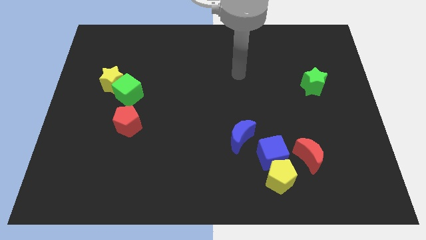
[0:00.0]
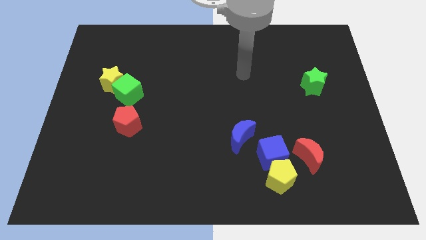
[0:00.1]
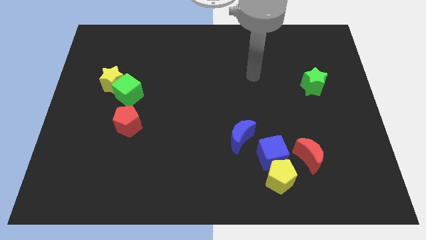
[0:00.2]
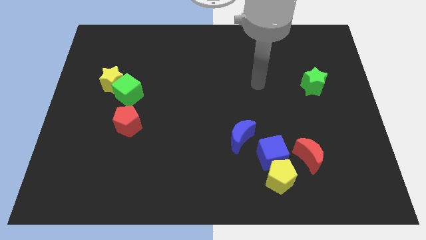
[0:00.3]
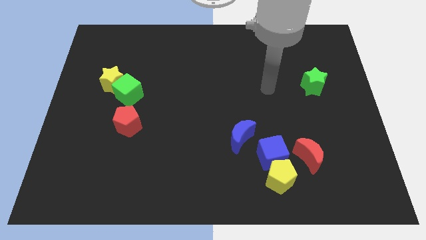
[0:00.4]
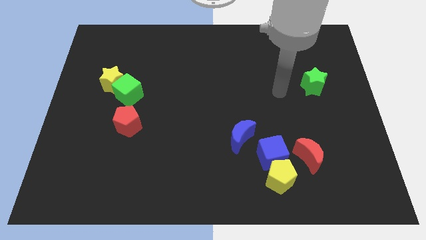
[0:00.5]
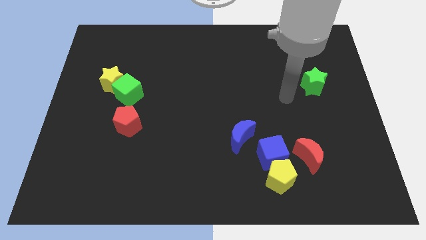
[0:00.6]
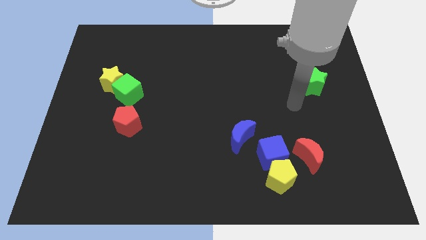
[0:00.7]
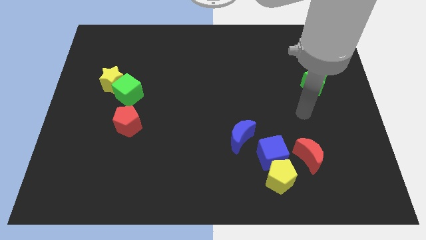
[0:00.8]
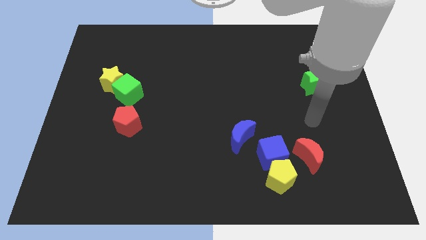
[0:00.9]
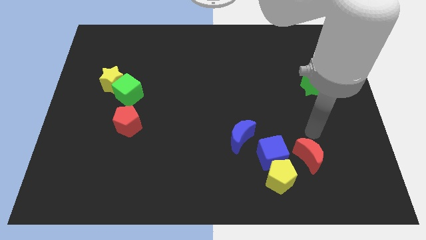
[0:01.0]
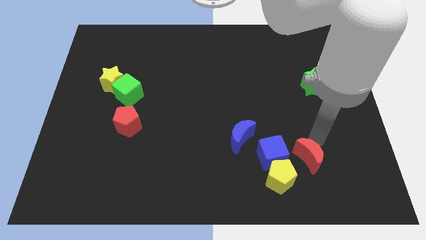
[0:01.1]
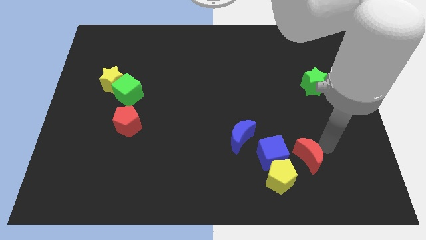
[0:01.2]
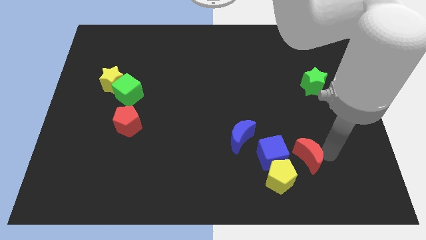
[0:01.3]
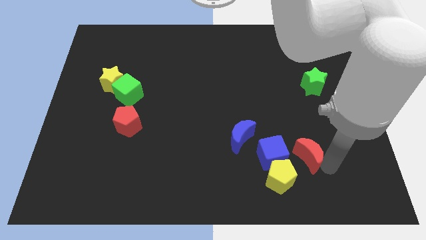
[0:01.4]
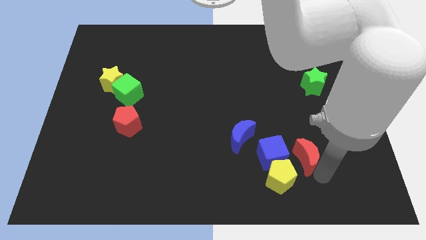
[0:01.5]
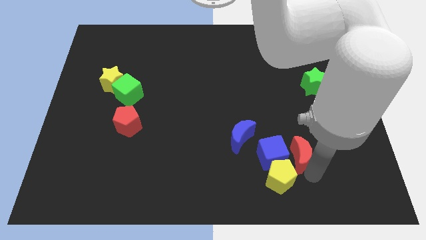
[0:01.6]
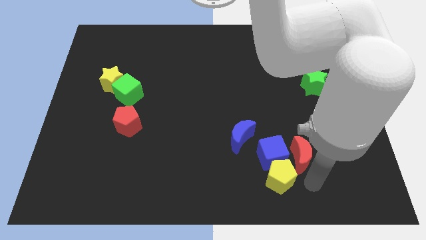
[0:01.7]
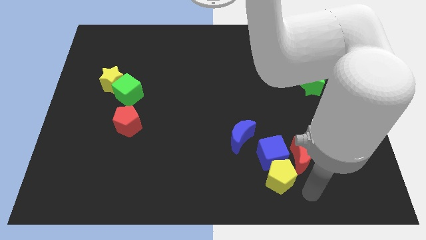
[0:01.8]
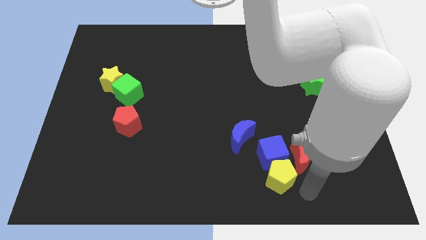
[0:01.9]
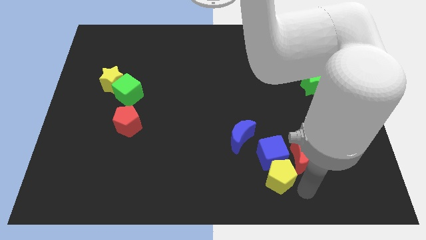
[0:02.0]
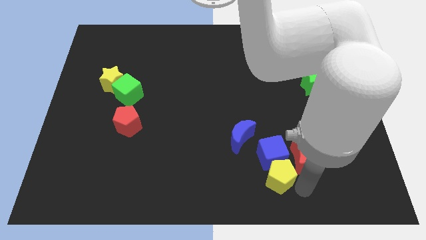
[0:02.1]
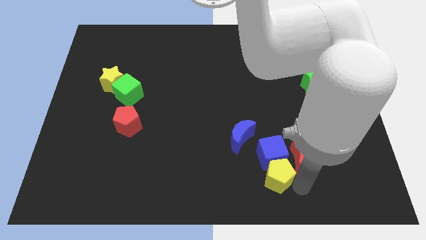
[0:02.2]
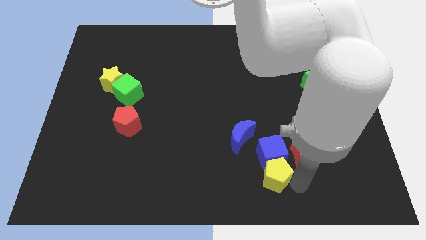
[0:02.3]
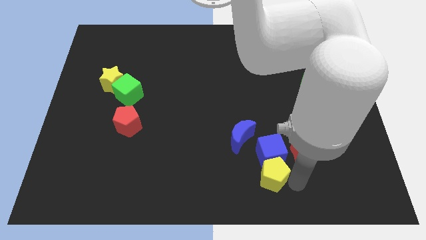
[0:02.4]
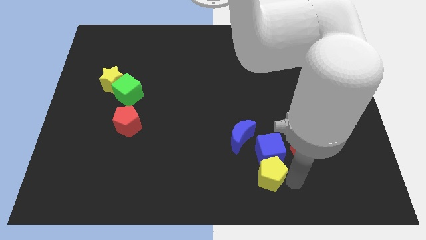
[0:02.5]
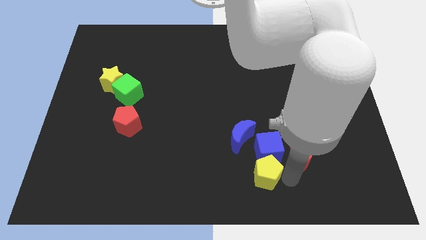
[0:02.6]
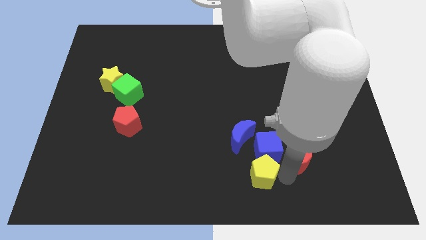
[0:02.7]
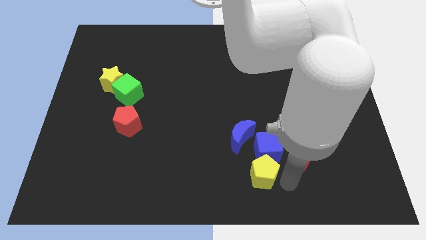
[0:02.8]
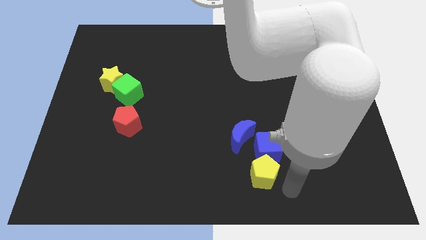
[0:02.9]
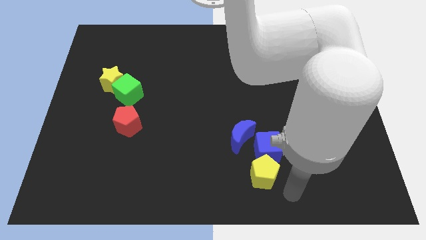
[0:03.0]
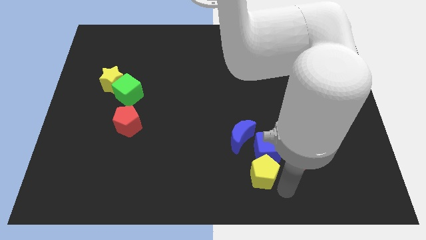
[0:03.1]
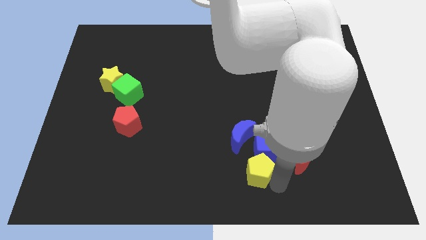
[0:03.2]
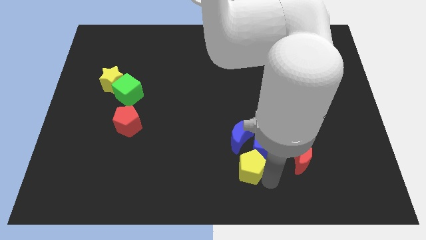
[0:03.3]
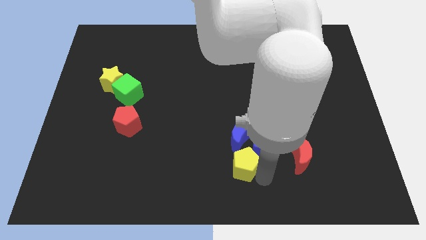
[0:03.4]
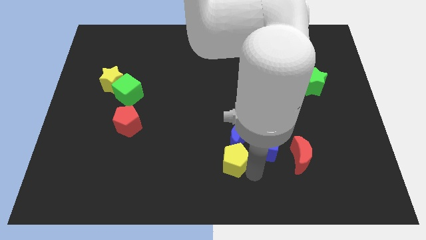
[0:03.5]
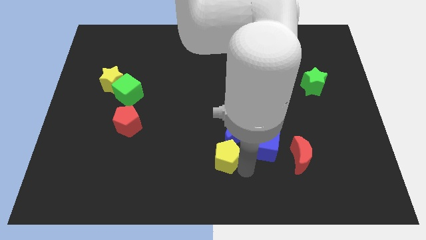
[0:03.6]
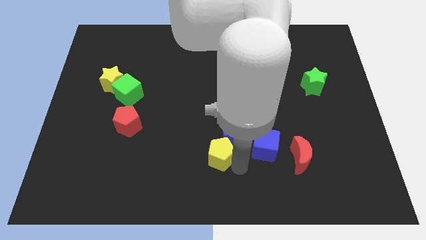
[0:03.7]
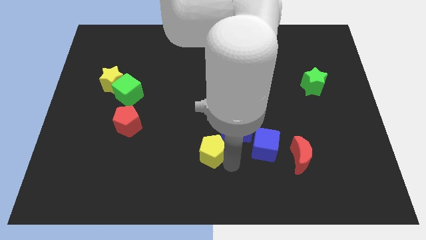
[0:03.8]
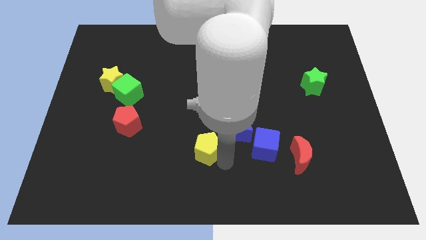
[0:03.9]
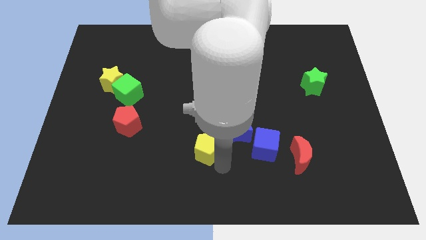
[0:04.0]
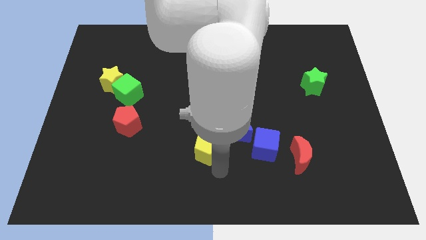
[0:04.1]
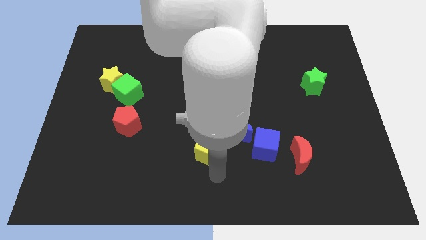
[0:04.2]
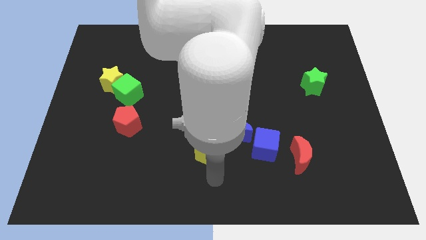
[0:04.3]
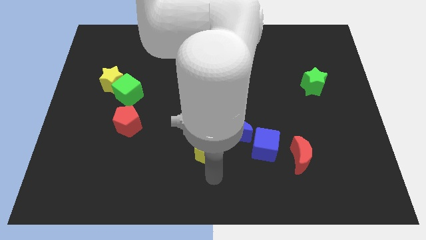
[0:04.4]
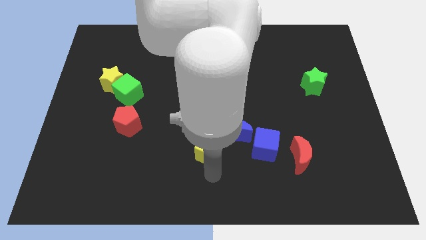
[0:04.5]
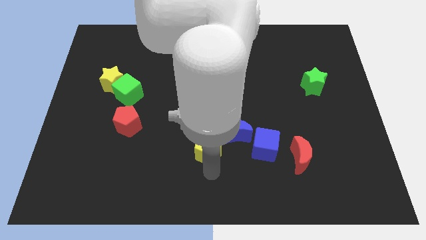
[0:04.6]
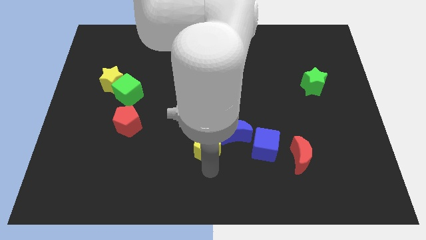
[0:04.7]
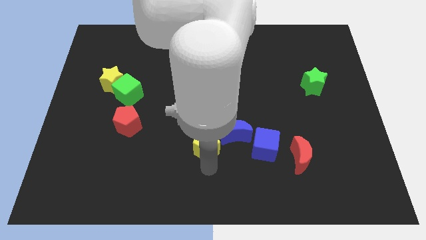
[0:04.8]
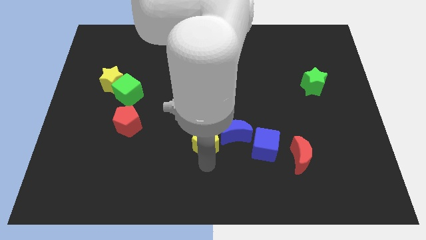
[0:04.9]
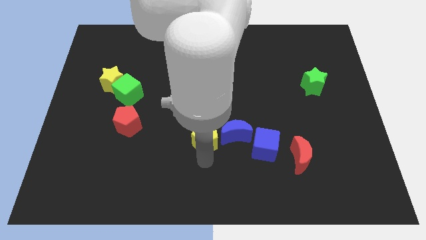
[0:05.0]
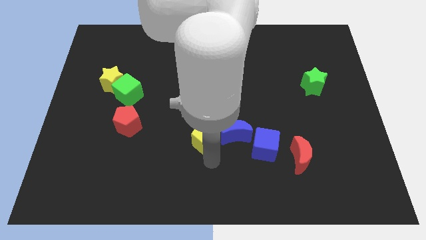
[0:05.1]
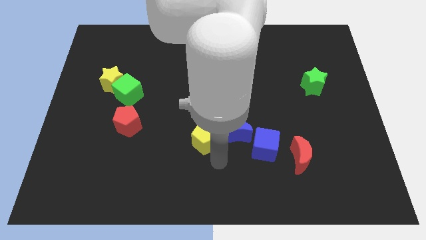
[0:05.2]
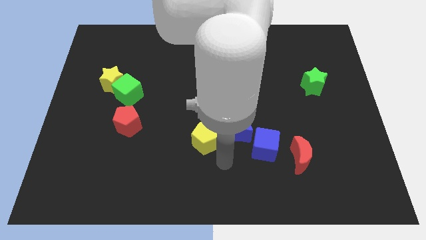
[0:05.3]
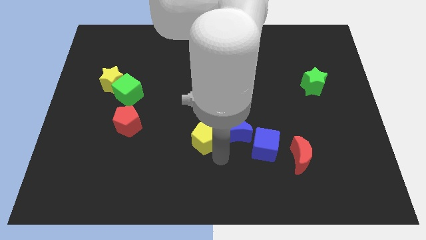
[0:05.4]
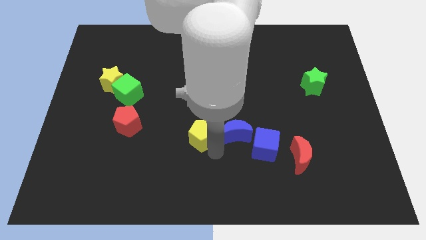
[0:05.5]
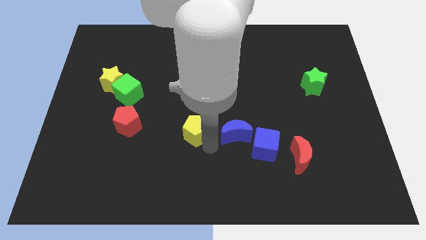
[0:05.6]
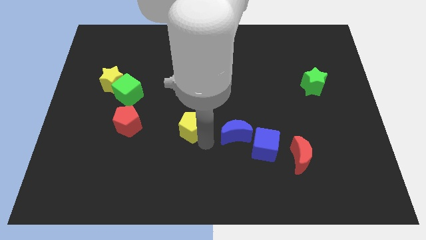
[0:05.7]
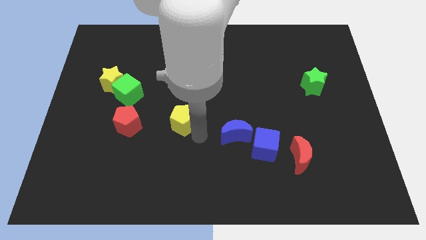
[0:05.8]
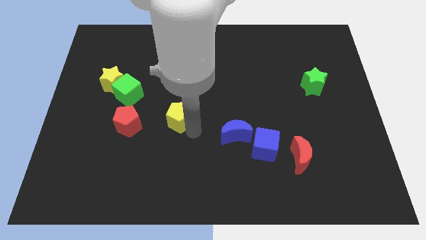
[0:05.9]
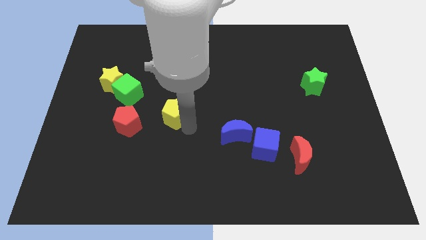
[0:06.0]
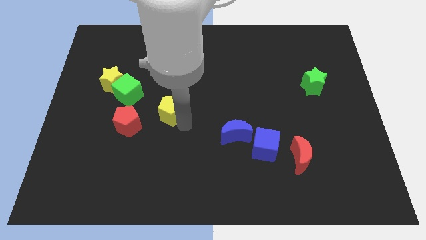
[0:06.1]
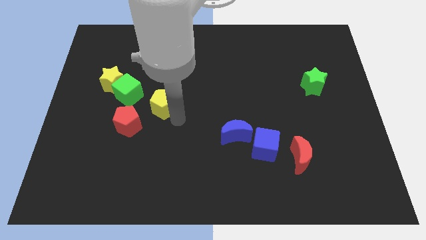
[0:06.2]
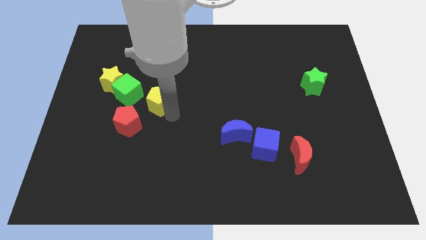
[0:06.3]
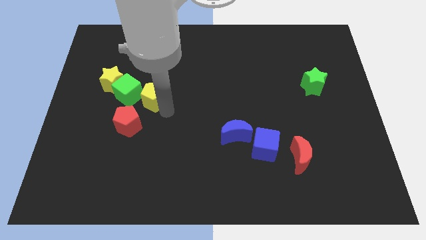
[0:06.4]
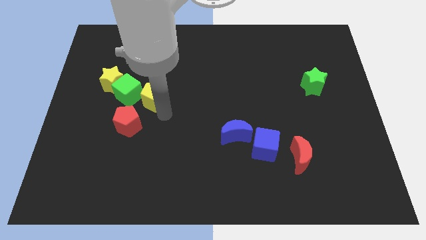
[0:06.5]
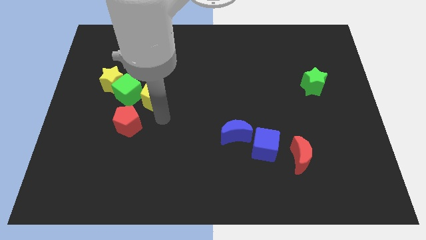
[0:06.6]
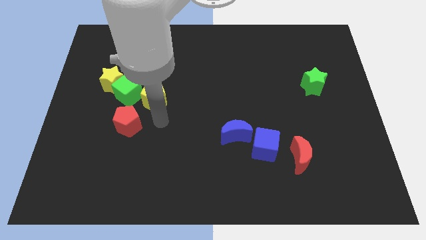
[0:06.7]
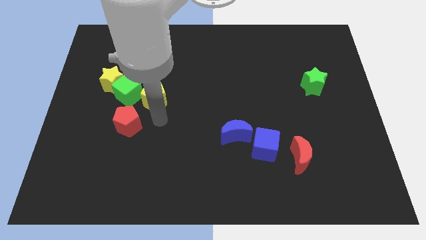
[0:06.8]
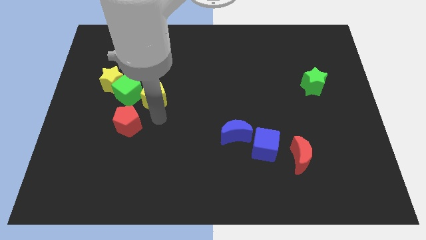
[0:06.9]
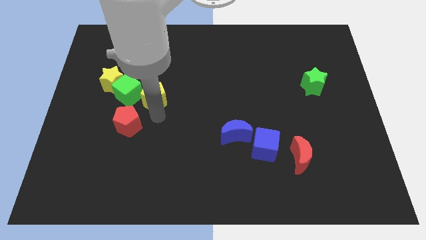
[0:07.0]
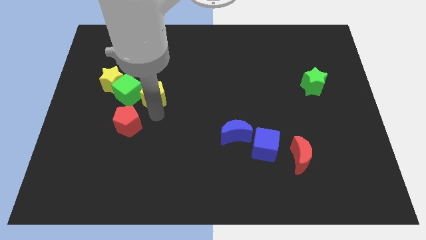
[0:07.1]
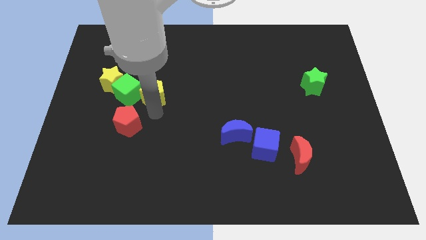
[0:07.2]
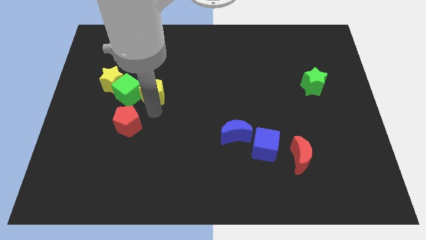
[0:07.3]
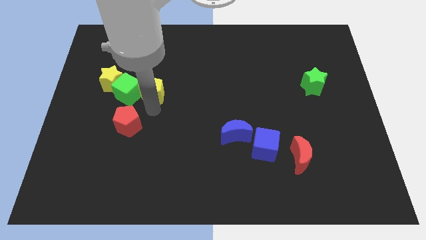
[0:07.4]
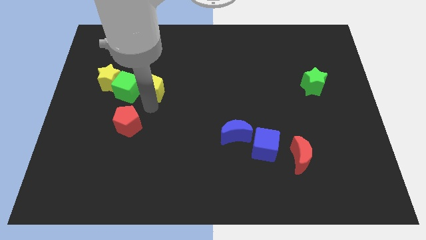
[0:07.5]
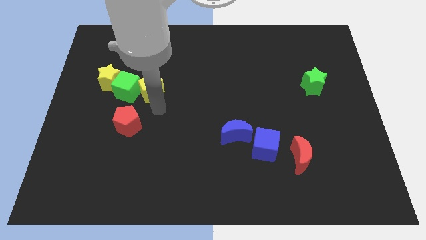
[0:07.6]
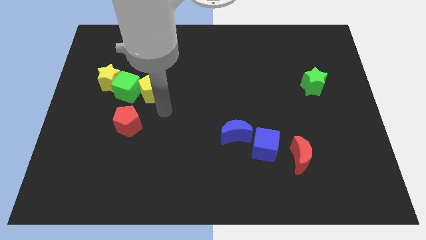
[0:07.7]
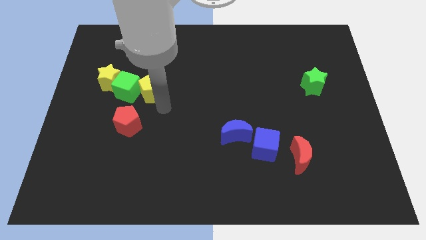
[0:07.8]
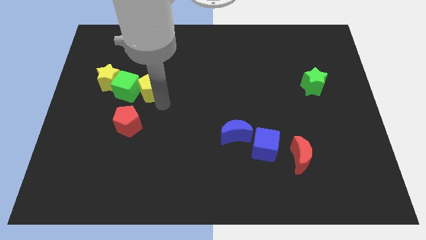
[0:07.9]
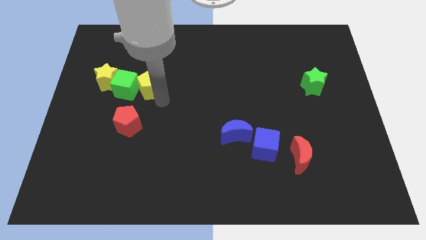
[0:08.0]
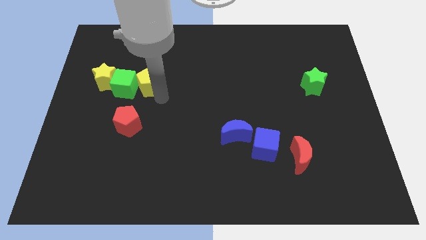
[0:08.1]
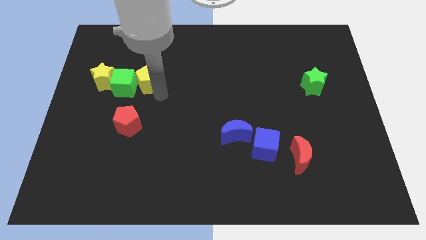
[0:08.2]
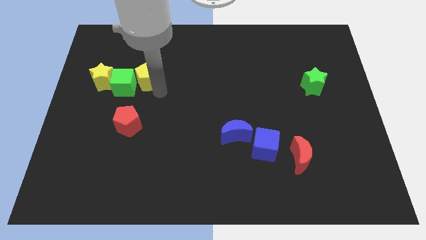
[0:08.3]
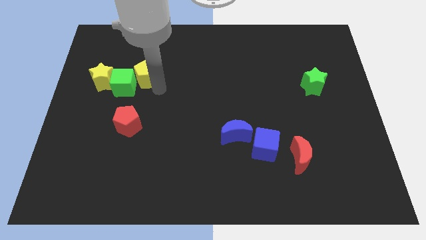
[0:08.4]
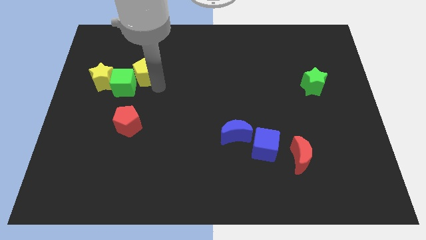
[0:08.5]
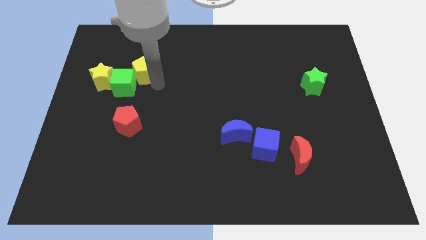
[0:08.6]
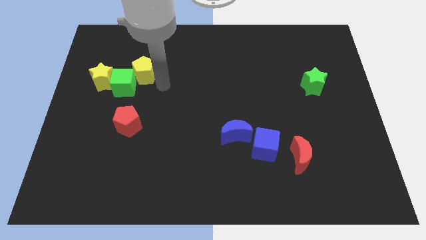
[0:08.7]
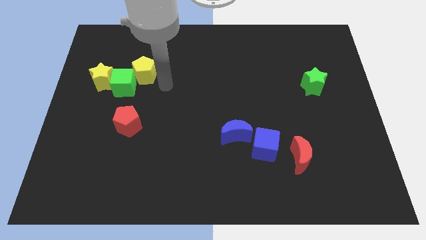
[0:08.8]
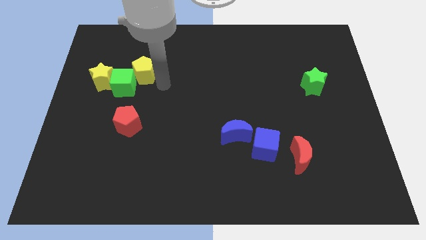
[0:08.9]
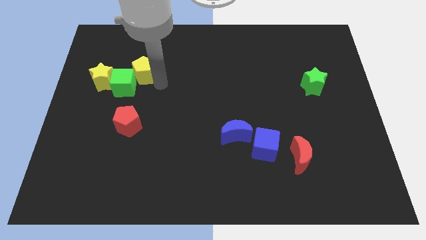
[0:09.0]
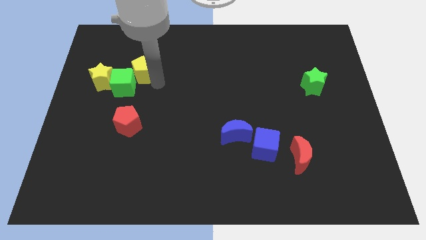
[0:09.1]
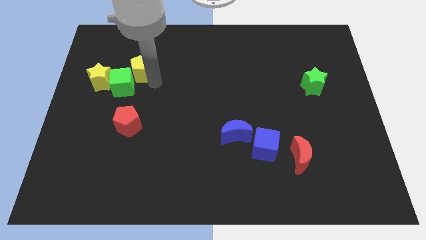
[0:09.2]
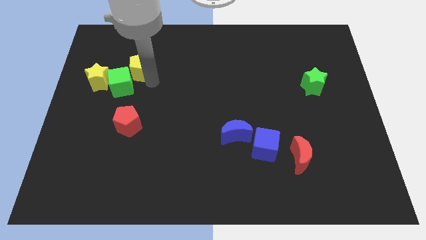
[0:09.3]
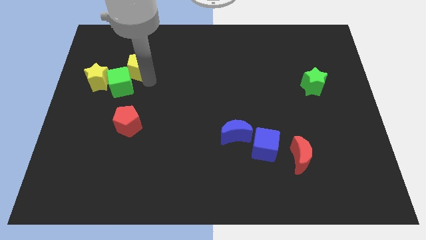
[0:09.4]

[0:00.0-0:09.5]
move the yellow pentagon to the top right side of the yellow star
